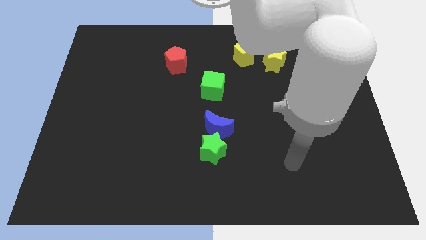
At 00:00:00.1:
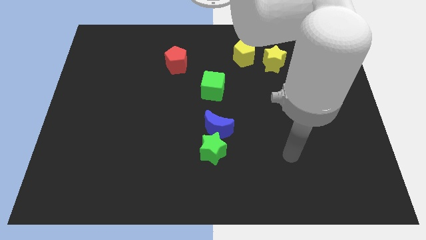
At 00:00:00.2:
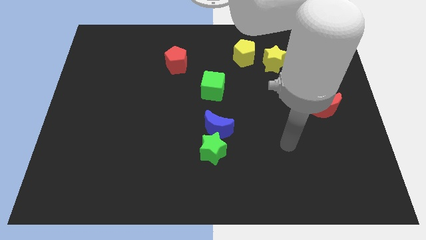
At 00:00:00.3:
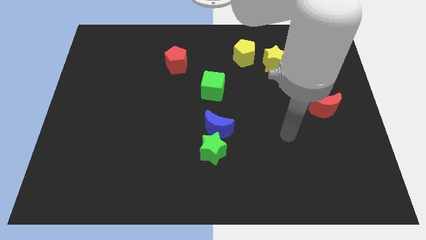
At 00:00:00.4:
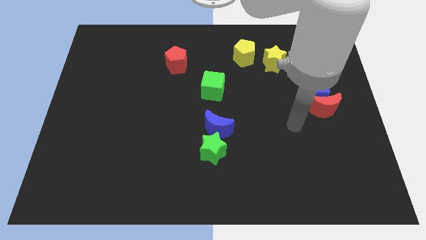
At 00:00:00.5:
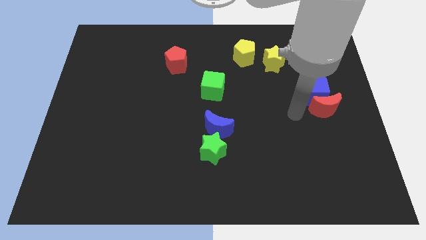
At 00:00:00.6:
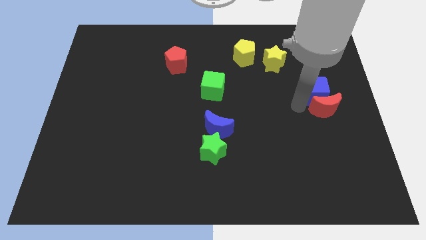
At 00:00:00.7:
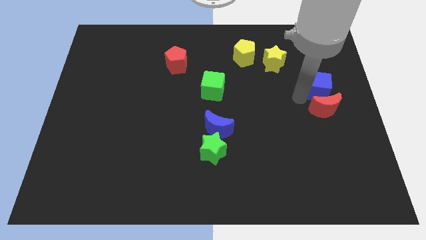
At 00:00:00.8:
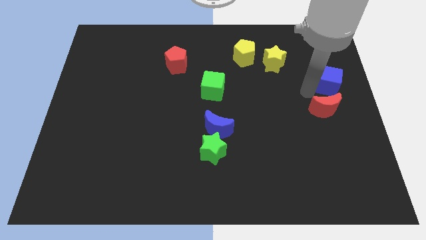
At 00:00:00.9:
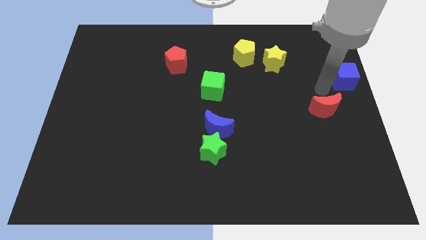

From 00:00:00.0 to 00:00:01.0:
move the red moon away from the blue cube

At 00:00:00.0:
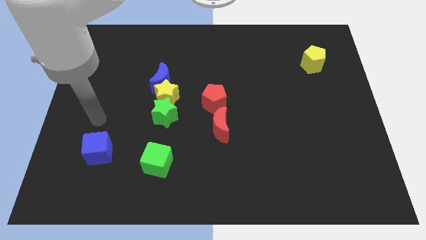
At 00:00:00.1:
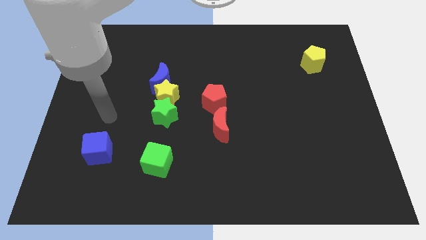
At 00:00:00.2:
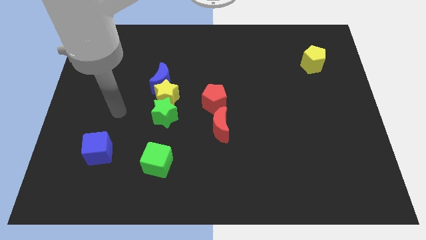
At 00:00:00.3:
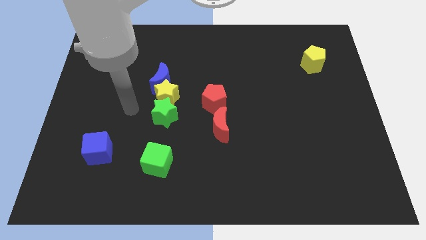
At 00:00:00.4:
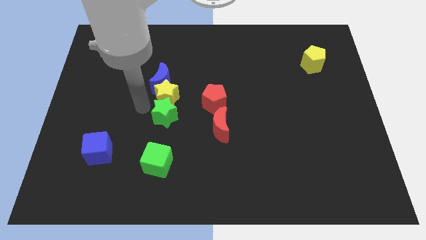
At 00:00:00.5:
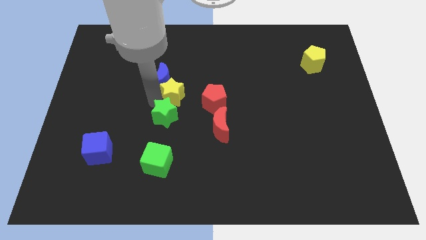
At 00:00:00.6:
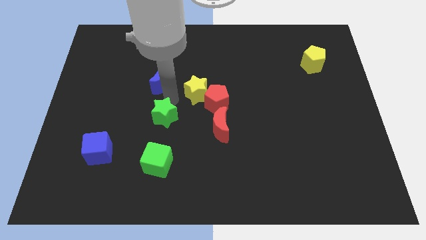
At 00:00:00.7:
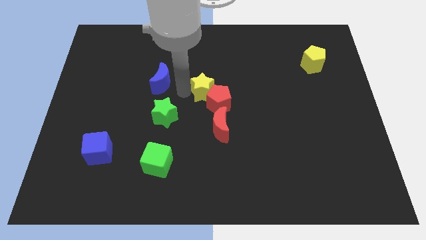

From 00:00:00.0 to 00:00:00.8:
separate the blue moon from the yellow star

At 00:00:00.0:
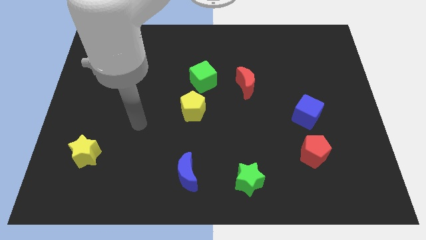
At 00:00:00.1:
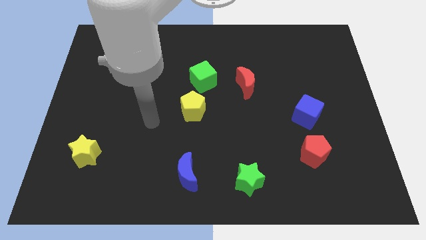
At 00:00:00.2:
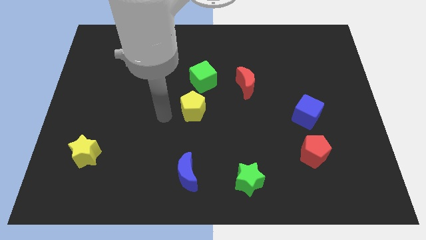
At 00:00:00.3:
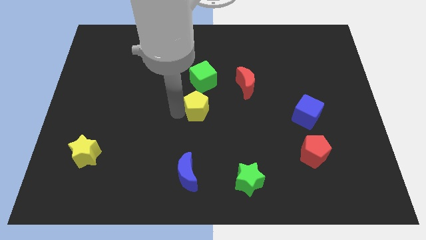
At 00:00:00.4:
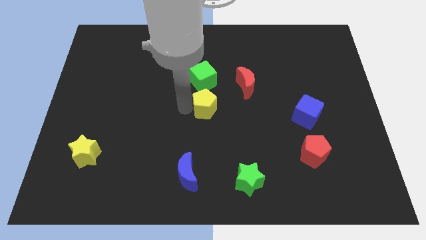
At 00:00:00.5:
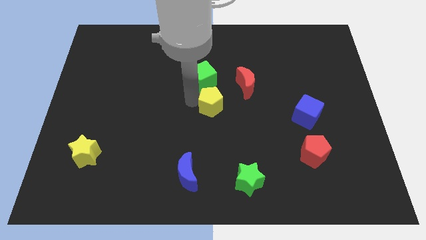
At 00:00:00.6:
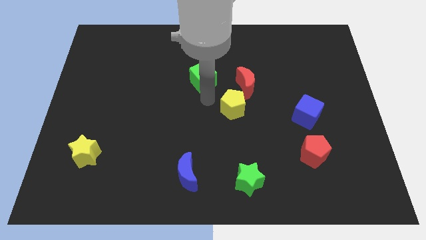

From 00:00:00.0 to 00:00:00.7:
pull the green cube apart from the yellow pentagon

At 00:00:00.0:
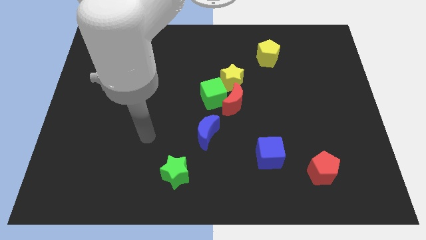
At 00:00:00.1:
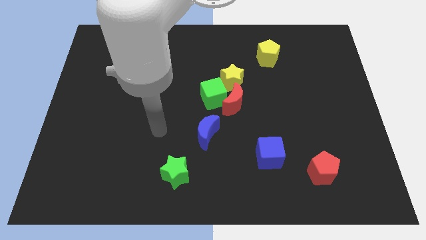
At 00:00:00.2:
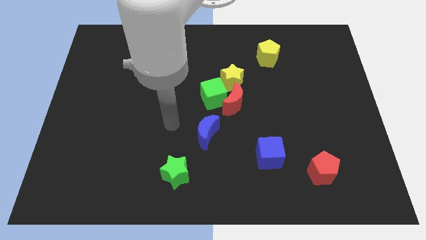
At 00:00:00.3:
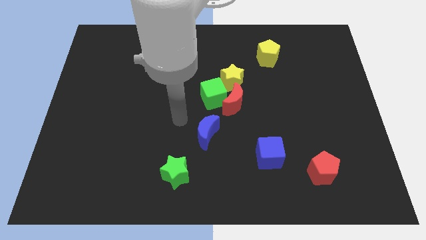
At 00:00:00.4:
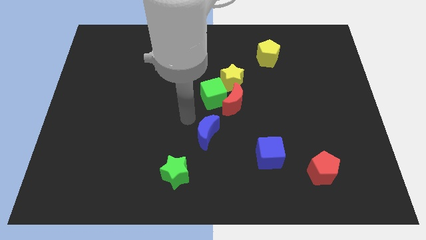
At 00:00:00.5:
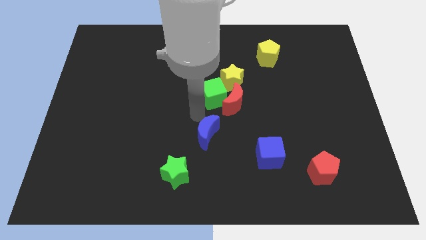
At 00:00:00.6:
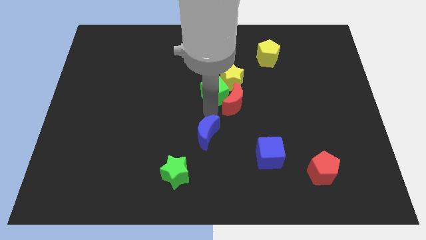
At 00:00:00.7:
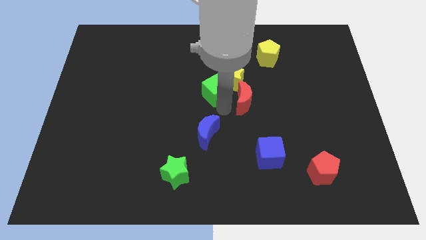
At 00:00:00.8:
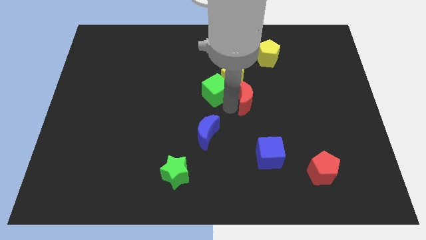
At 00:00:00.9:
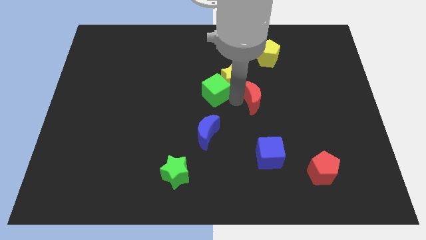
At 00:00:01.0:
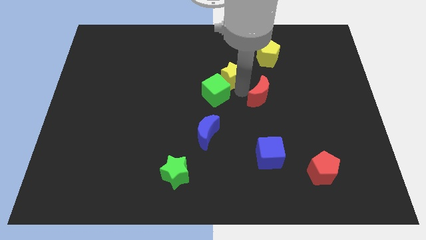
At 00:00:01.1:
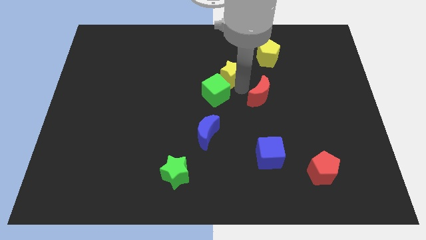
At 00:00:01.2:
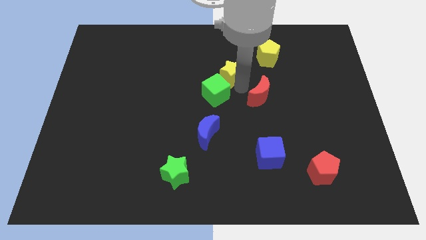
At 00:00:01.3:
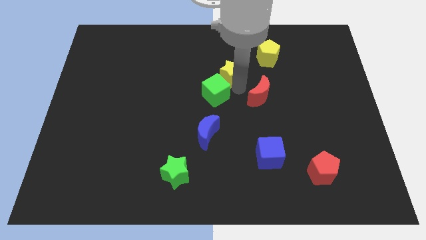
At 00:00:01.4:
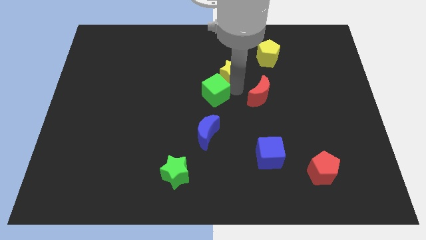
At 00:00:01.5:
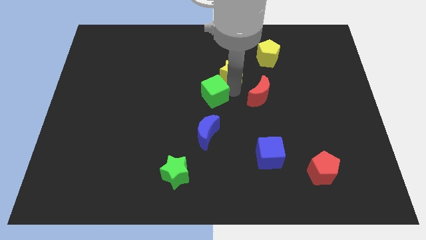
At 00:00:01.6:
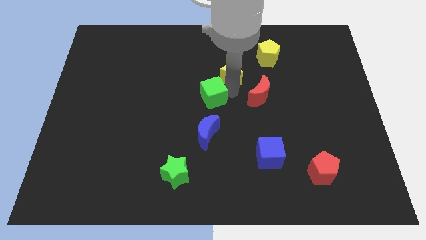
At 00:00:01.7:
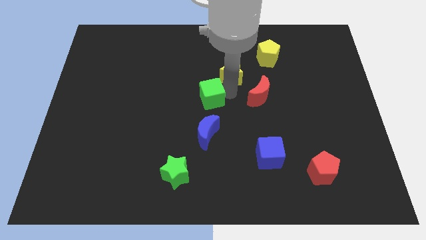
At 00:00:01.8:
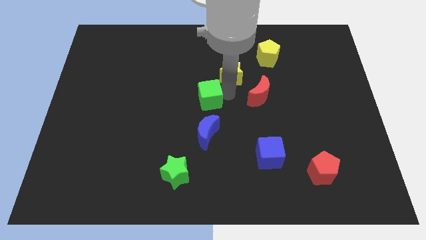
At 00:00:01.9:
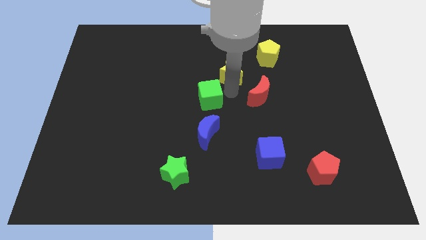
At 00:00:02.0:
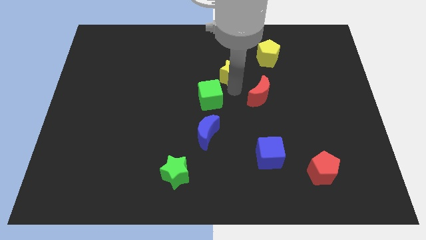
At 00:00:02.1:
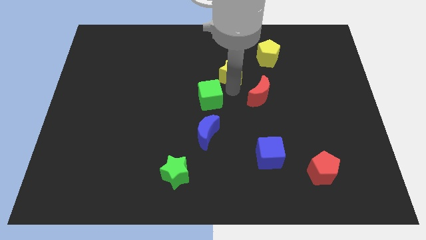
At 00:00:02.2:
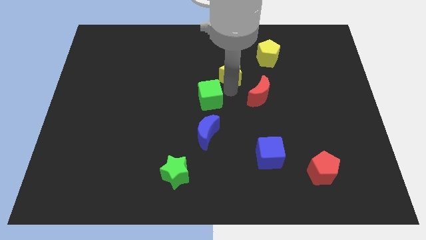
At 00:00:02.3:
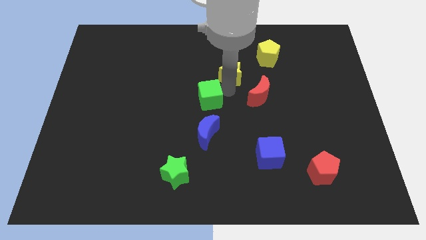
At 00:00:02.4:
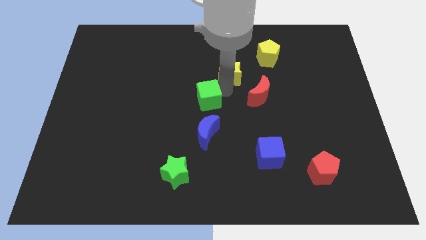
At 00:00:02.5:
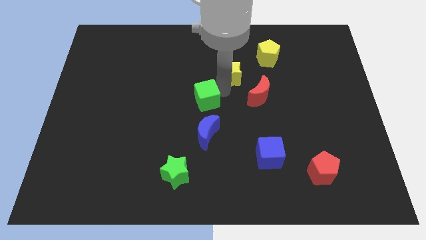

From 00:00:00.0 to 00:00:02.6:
separate the green cube from the red moon and yellow star

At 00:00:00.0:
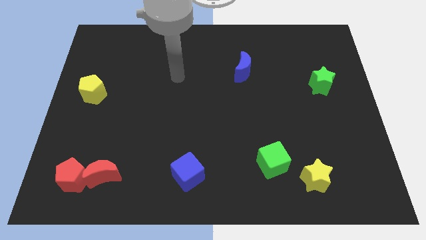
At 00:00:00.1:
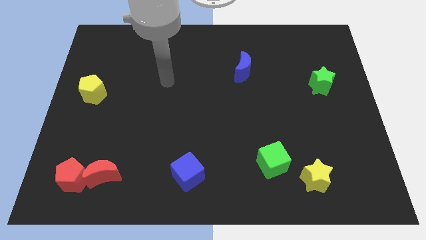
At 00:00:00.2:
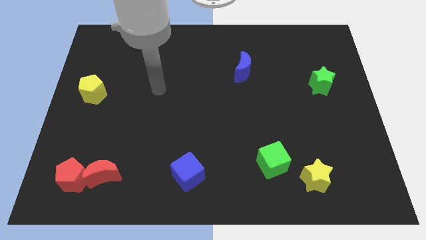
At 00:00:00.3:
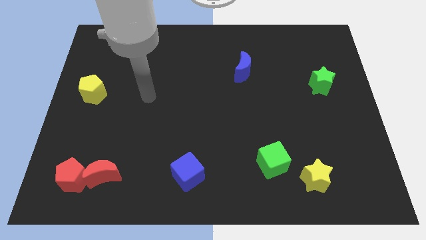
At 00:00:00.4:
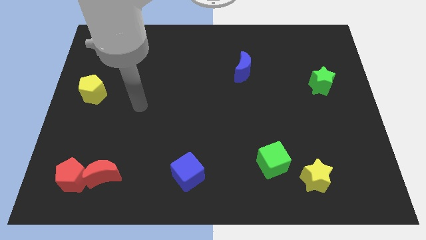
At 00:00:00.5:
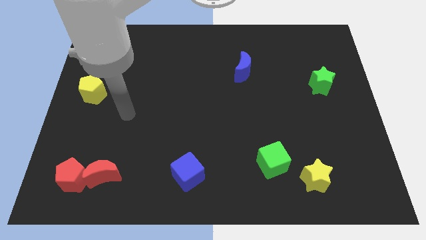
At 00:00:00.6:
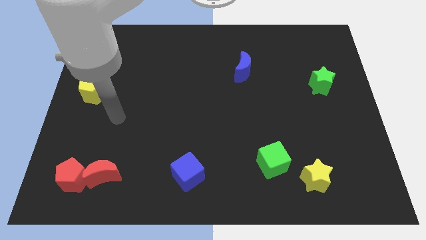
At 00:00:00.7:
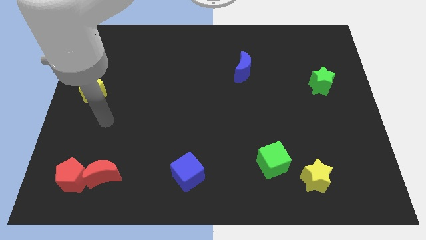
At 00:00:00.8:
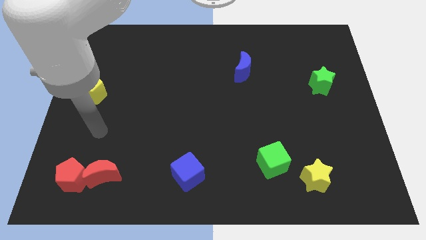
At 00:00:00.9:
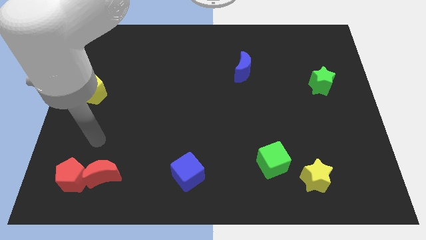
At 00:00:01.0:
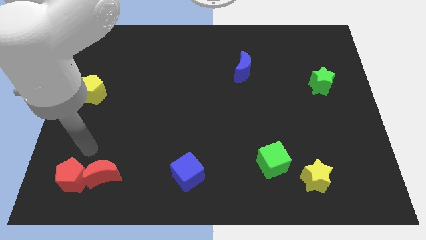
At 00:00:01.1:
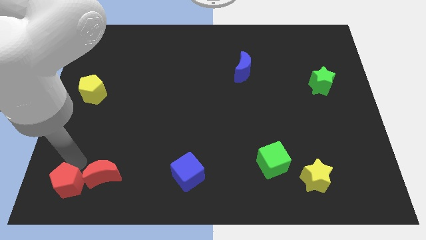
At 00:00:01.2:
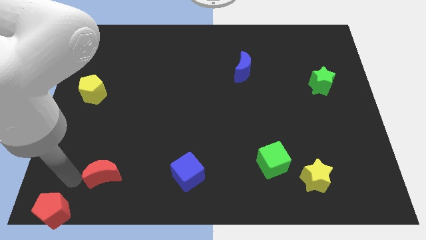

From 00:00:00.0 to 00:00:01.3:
pull the red moon apart from the red pentagon

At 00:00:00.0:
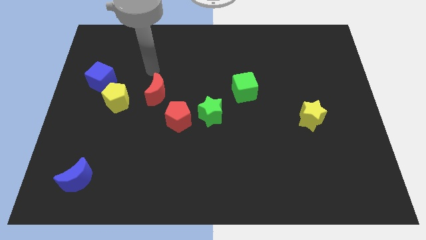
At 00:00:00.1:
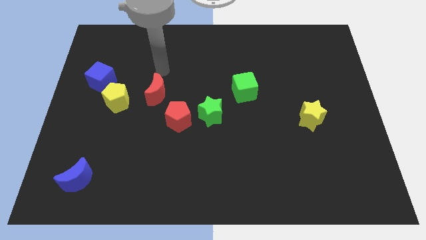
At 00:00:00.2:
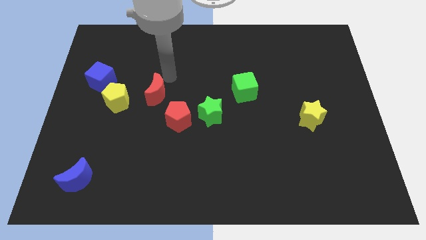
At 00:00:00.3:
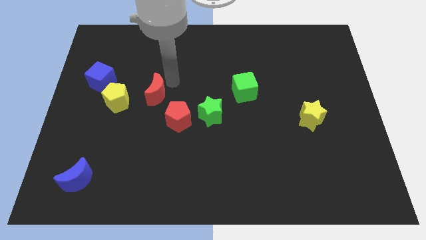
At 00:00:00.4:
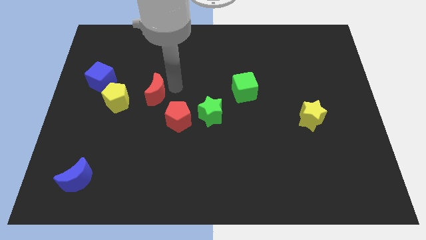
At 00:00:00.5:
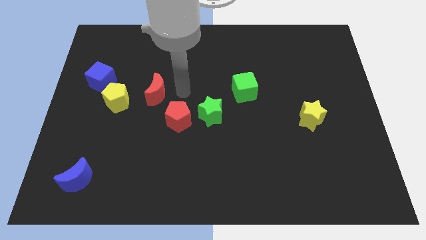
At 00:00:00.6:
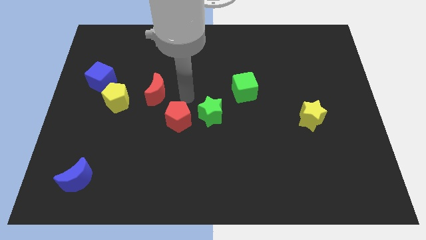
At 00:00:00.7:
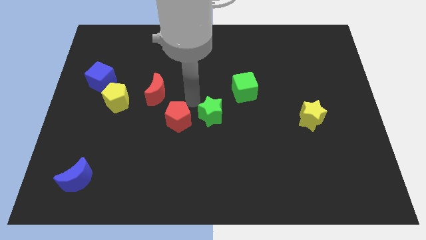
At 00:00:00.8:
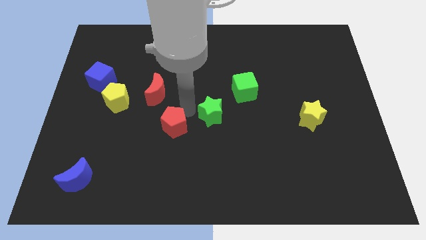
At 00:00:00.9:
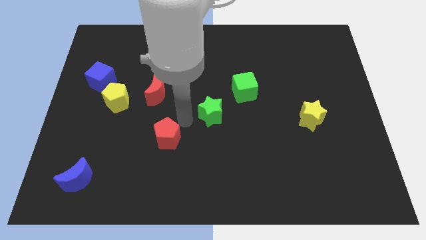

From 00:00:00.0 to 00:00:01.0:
separate the green star from the red pentagon

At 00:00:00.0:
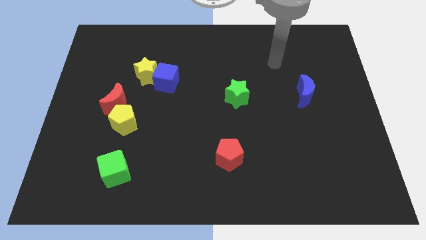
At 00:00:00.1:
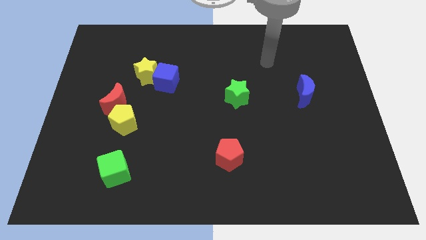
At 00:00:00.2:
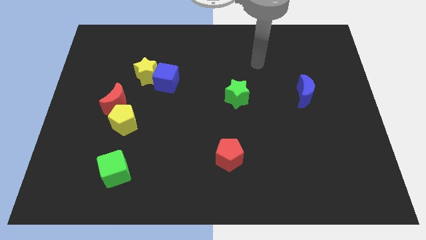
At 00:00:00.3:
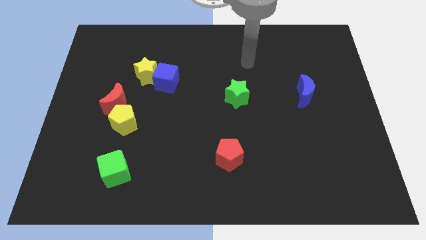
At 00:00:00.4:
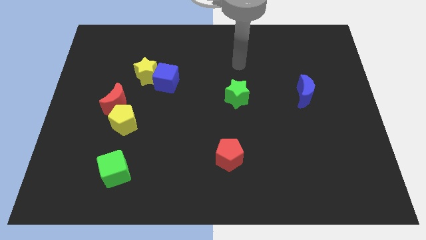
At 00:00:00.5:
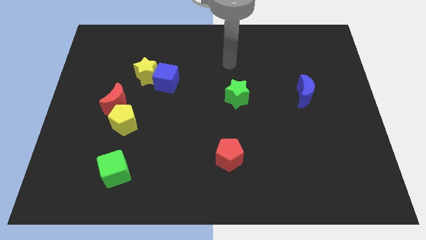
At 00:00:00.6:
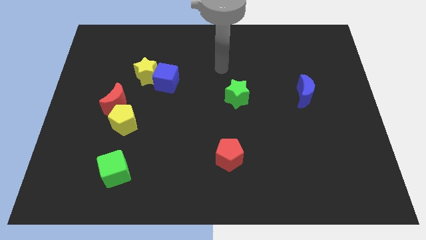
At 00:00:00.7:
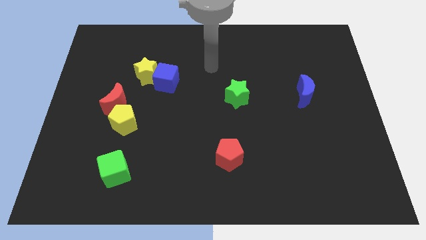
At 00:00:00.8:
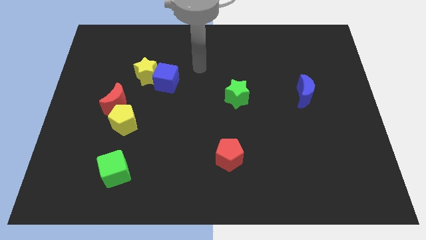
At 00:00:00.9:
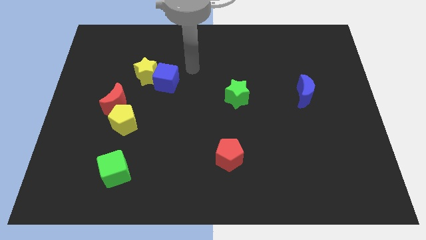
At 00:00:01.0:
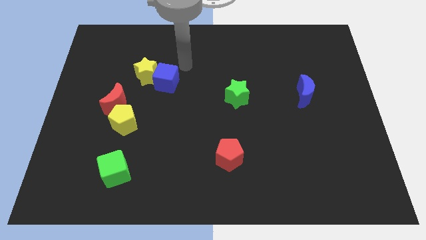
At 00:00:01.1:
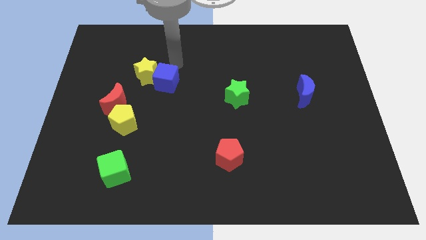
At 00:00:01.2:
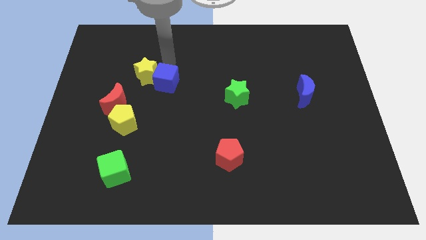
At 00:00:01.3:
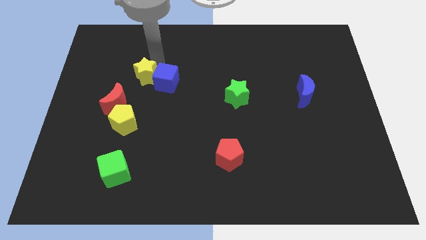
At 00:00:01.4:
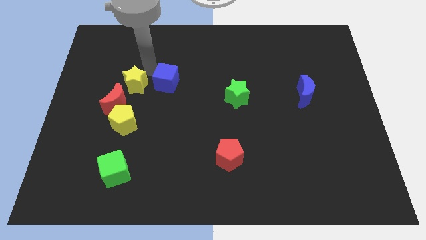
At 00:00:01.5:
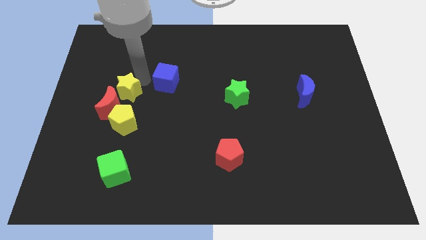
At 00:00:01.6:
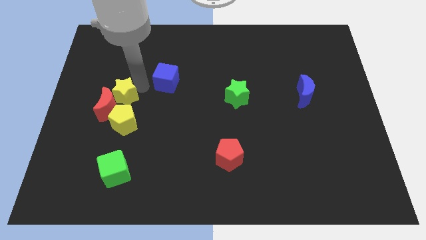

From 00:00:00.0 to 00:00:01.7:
pull the blue cube apart from the yellow star
